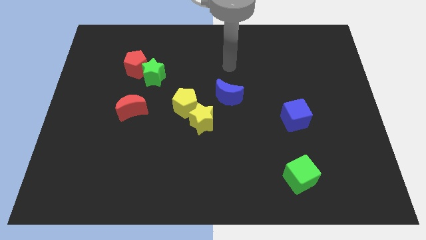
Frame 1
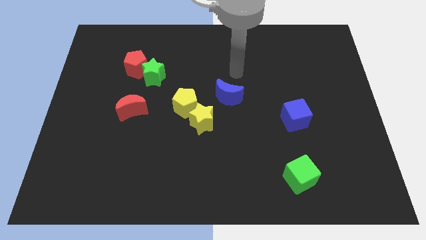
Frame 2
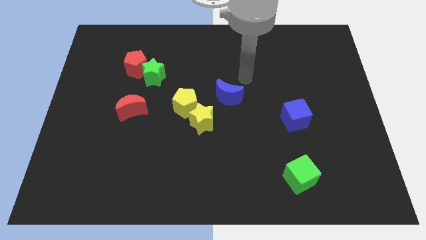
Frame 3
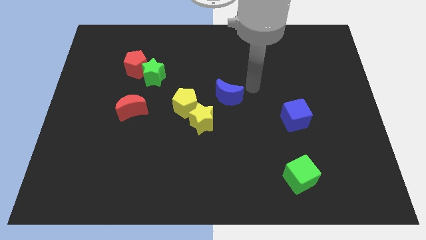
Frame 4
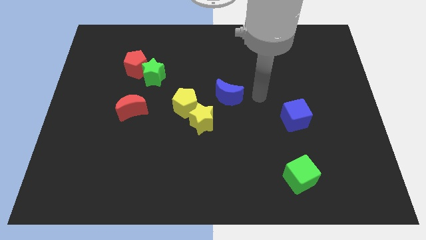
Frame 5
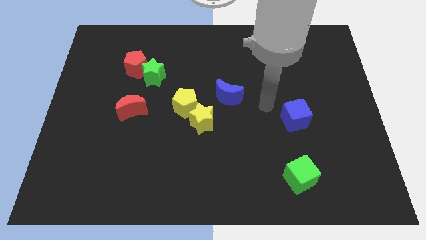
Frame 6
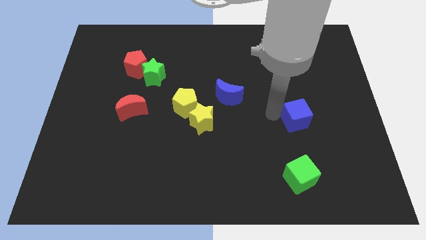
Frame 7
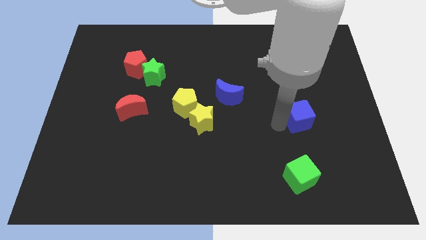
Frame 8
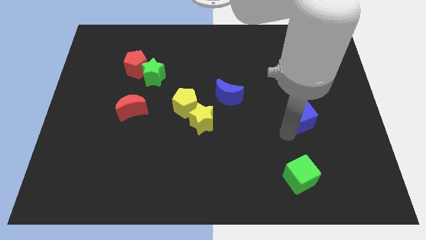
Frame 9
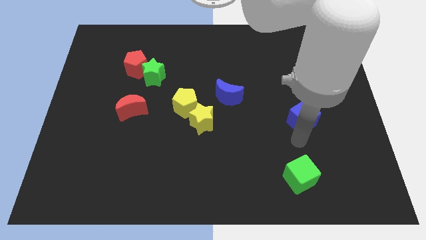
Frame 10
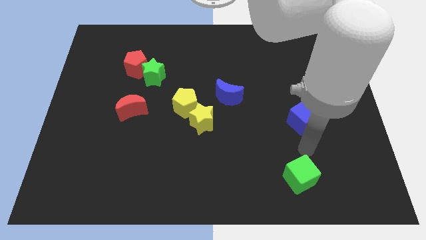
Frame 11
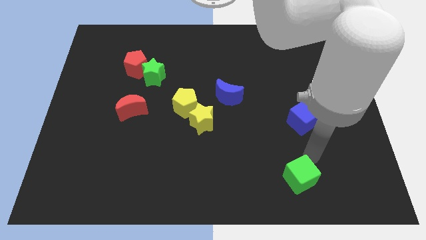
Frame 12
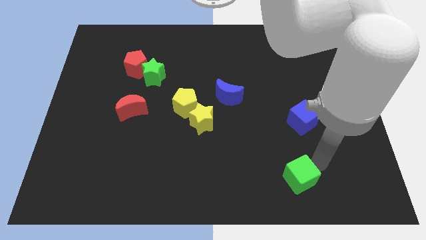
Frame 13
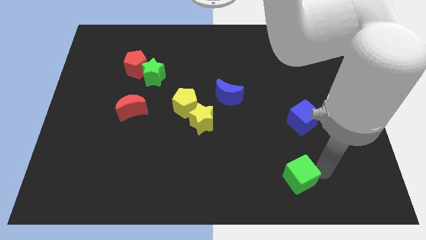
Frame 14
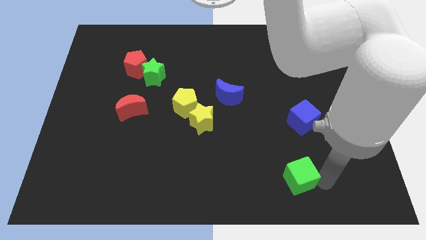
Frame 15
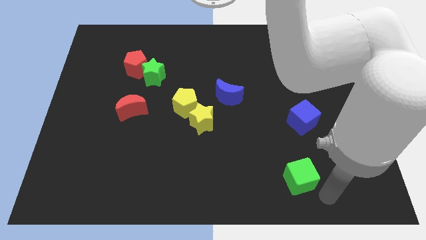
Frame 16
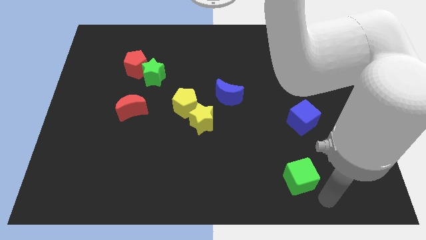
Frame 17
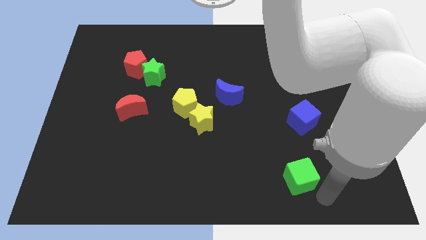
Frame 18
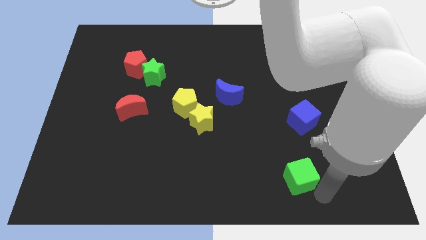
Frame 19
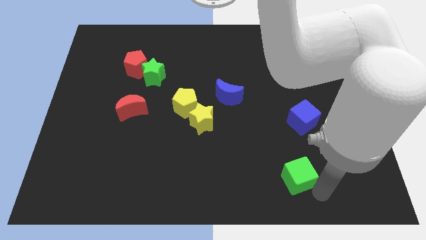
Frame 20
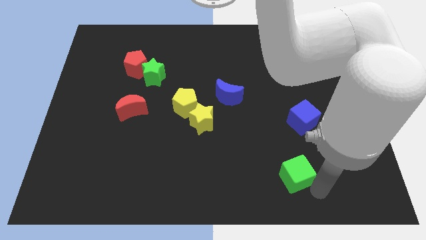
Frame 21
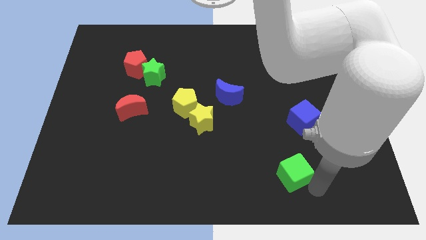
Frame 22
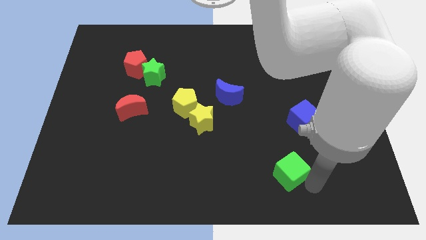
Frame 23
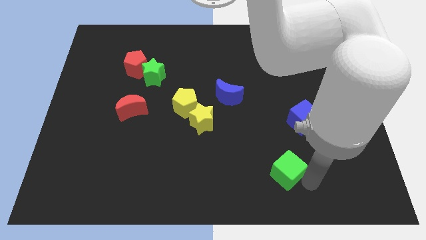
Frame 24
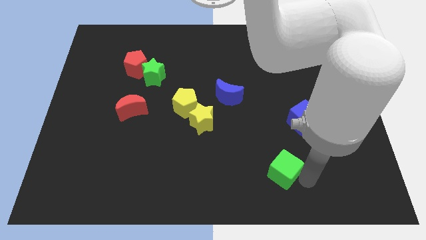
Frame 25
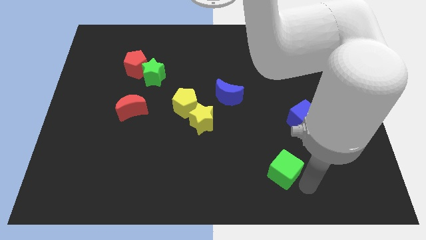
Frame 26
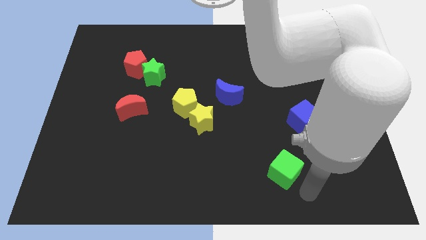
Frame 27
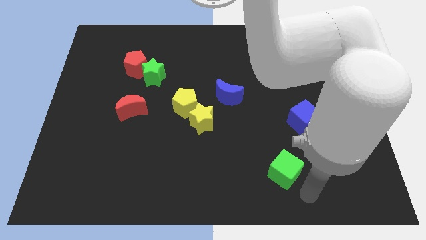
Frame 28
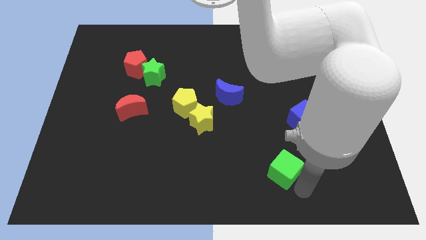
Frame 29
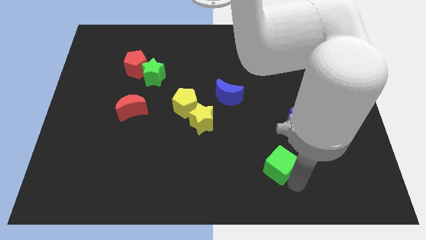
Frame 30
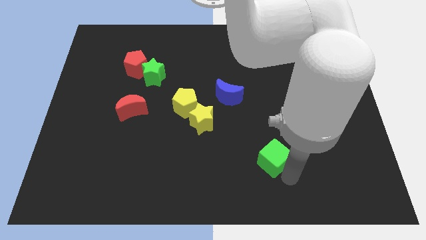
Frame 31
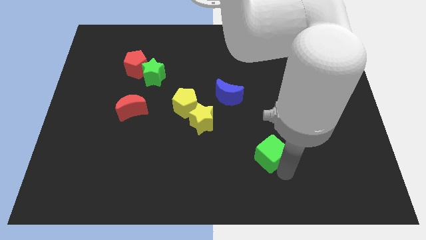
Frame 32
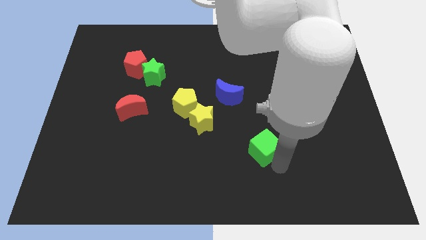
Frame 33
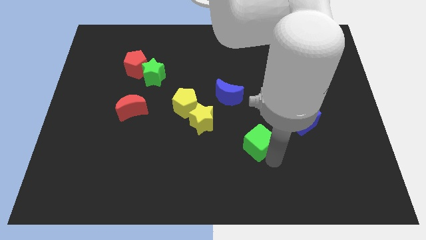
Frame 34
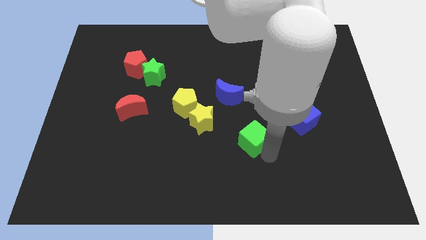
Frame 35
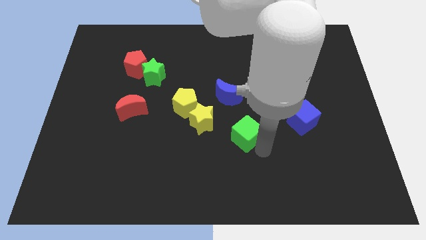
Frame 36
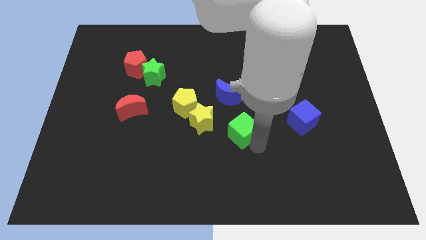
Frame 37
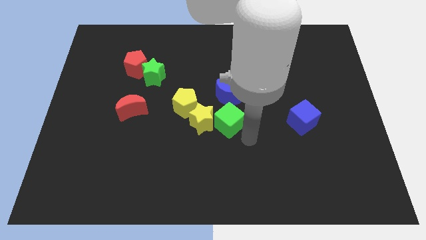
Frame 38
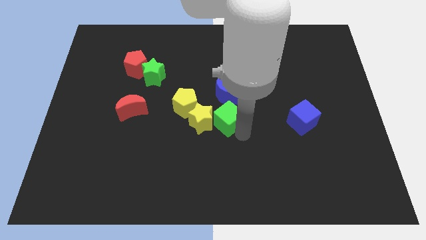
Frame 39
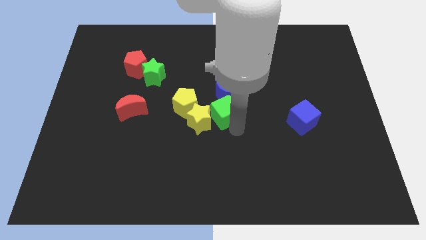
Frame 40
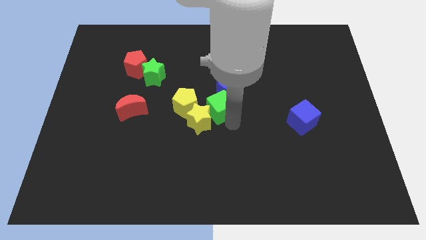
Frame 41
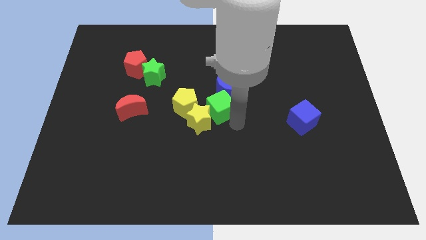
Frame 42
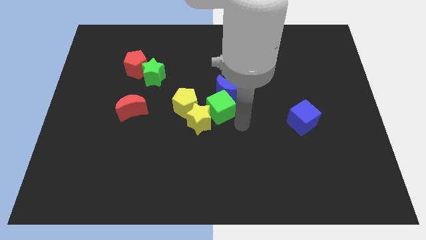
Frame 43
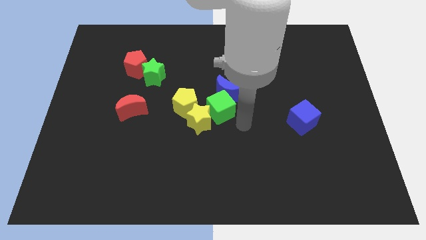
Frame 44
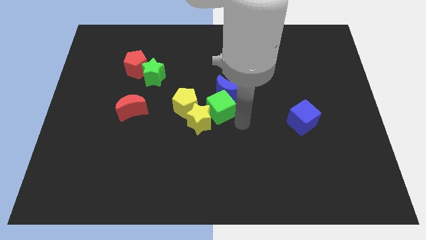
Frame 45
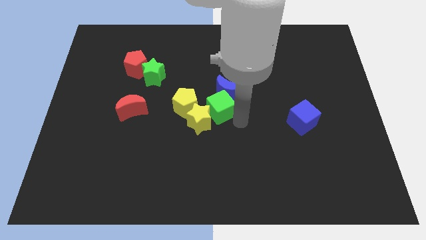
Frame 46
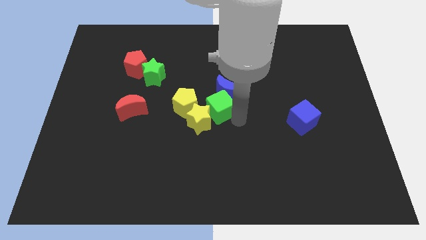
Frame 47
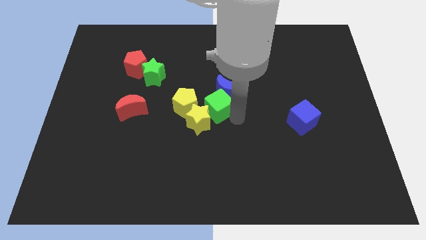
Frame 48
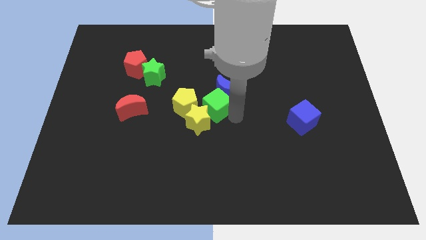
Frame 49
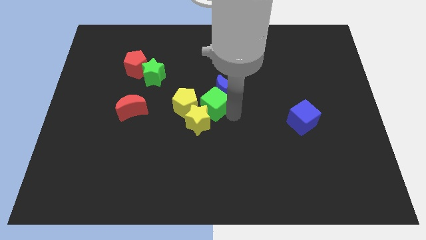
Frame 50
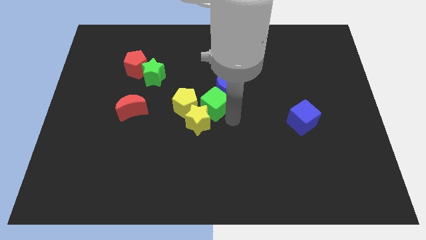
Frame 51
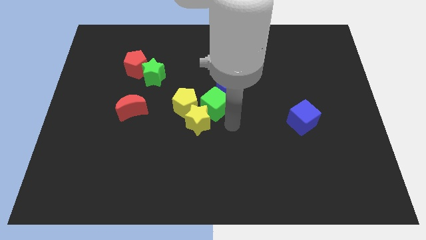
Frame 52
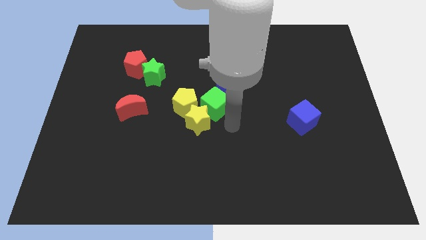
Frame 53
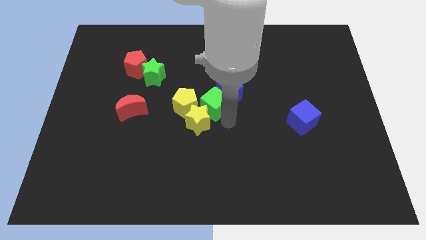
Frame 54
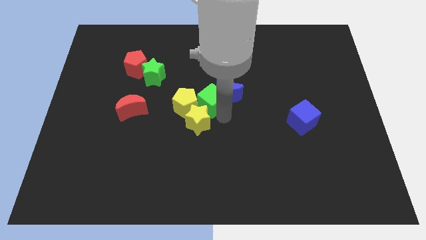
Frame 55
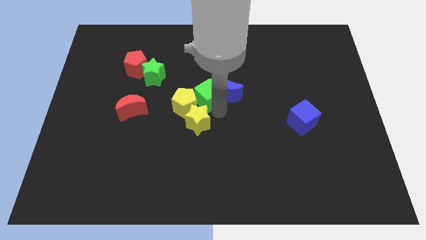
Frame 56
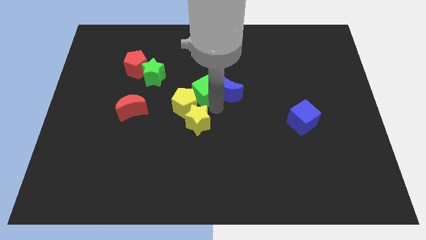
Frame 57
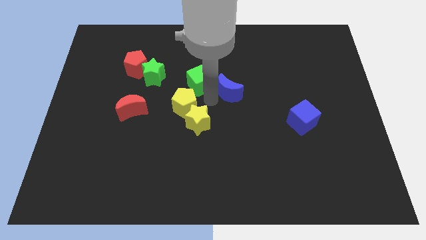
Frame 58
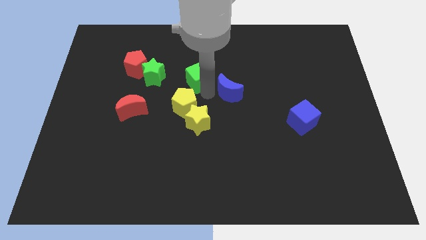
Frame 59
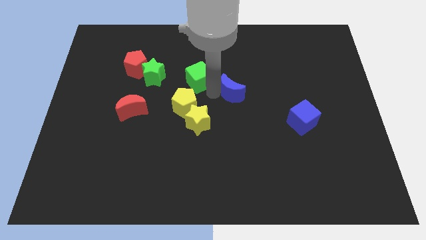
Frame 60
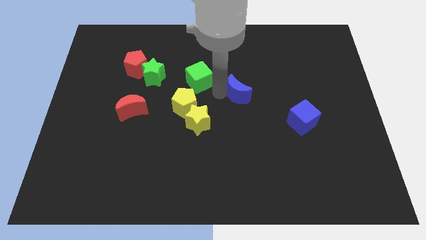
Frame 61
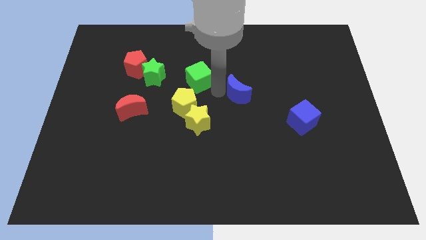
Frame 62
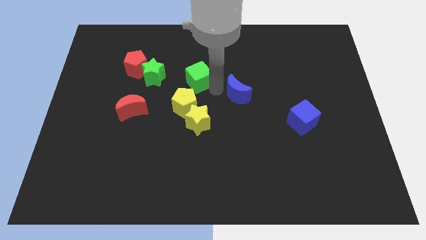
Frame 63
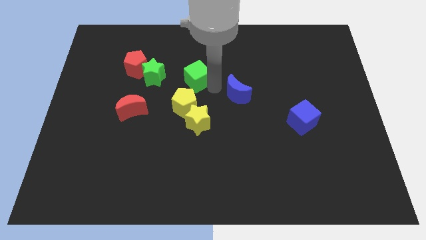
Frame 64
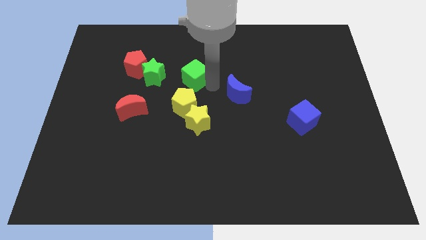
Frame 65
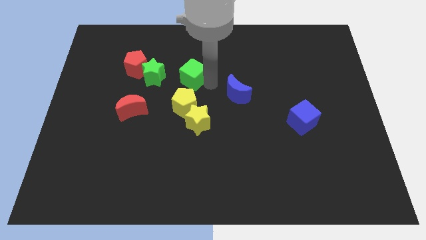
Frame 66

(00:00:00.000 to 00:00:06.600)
put the green cube right of the red pentagon

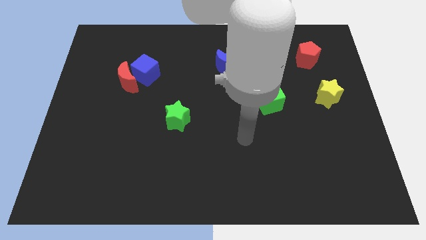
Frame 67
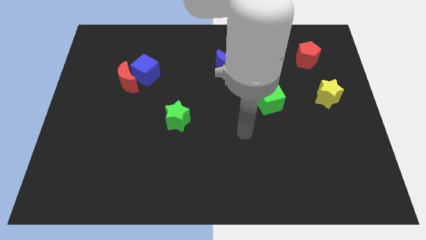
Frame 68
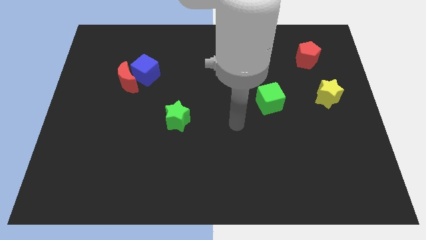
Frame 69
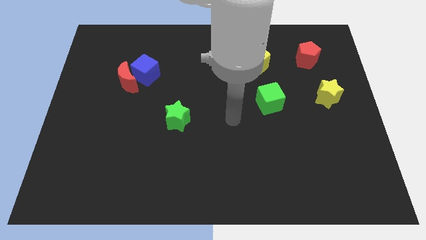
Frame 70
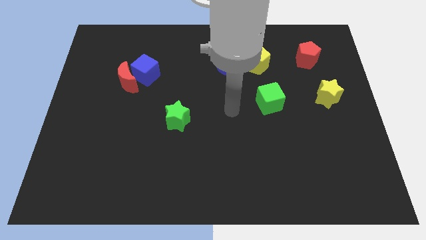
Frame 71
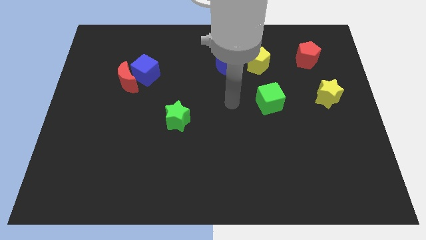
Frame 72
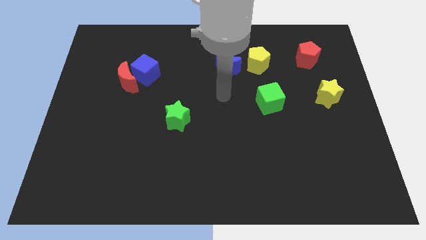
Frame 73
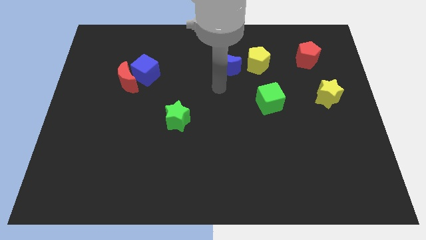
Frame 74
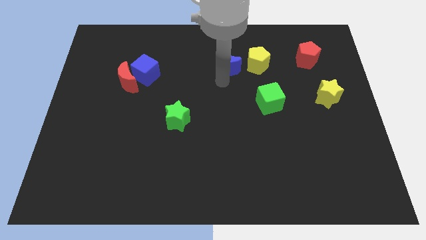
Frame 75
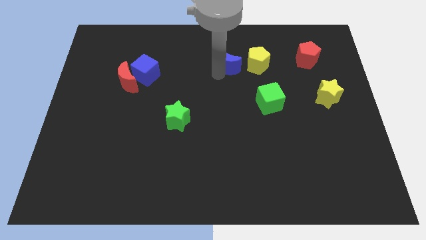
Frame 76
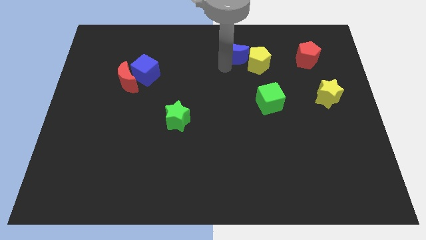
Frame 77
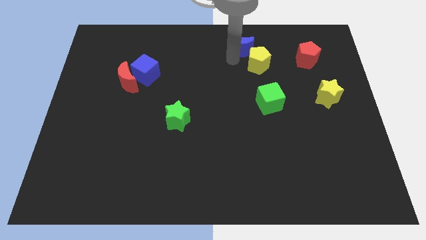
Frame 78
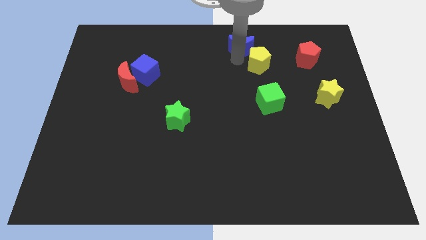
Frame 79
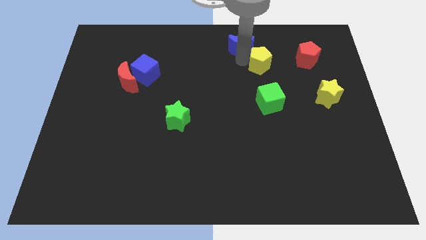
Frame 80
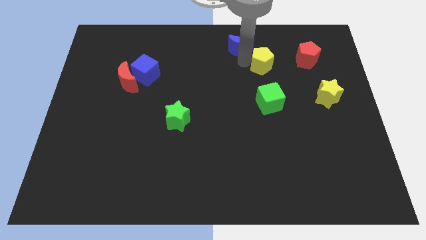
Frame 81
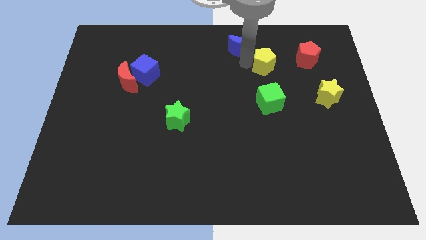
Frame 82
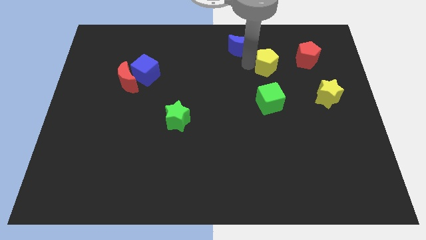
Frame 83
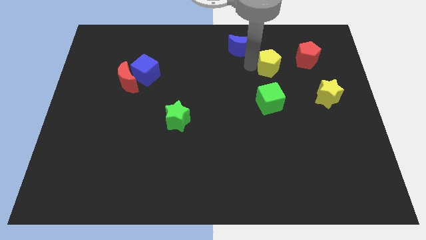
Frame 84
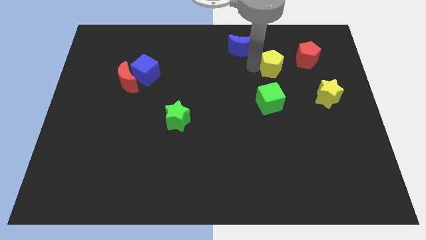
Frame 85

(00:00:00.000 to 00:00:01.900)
slide the yellow pentagon to the bottom left side of the red pentagon
